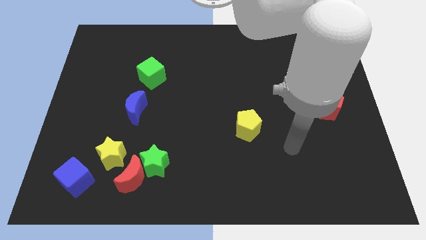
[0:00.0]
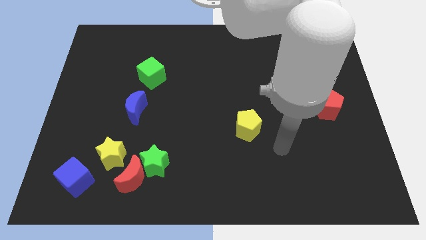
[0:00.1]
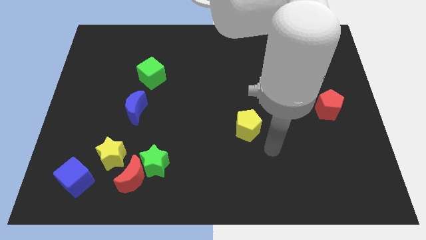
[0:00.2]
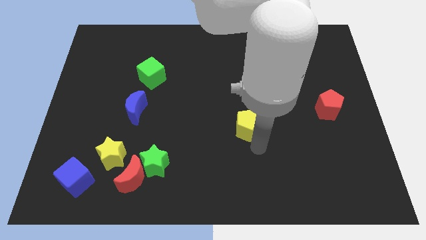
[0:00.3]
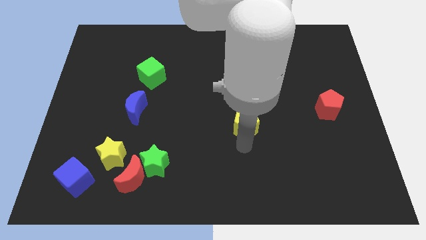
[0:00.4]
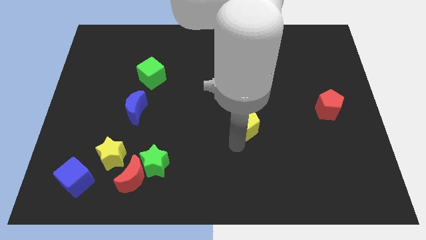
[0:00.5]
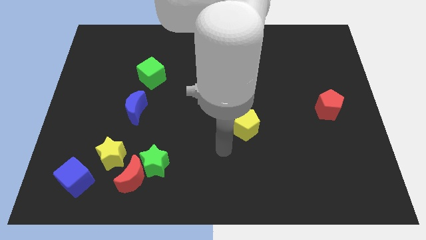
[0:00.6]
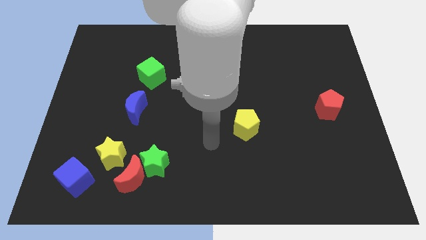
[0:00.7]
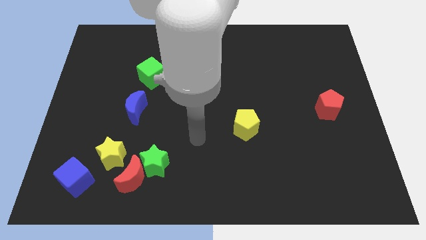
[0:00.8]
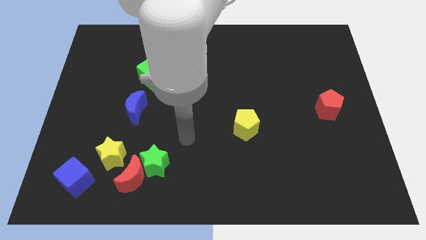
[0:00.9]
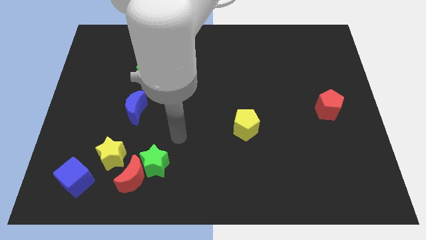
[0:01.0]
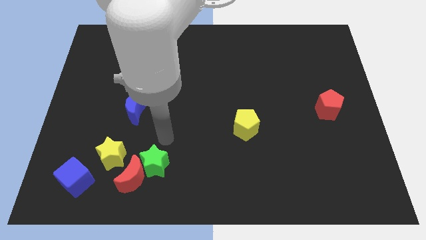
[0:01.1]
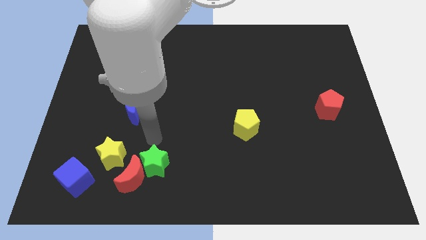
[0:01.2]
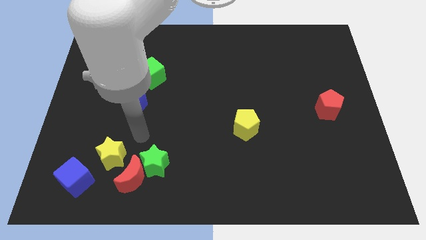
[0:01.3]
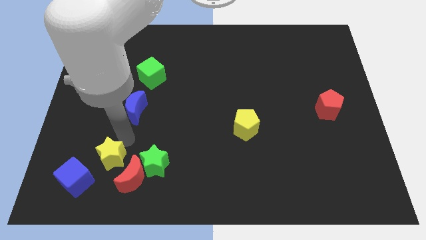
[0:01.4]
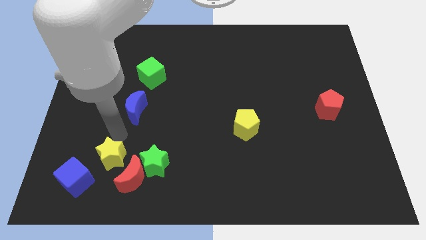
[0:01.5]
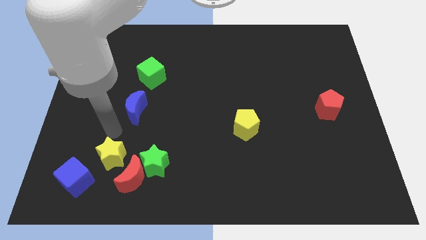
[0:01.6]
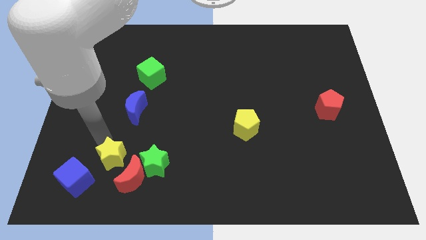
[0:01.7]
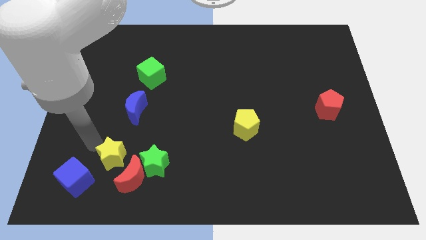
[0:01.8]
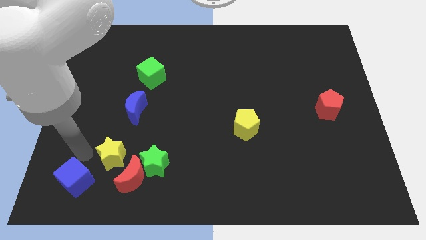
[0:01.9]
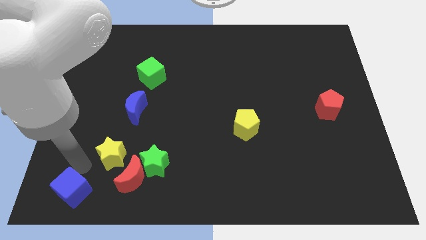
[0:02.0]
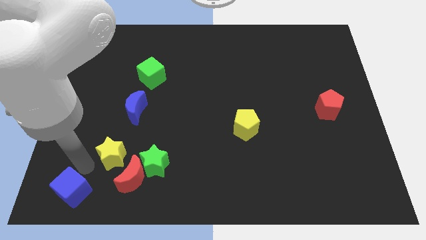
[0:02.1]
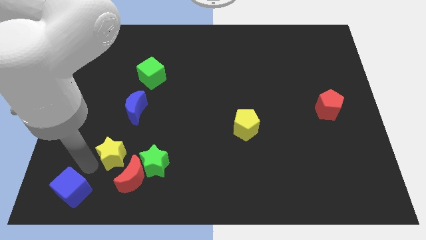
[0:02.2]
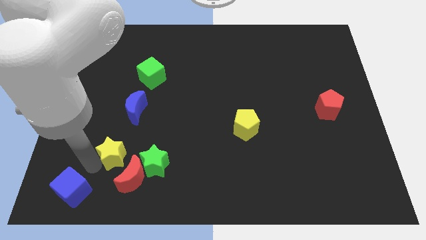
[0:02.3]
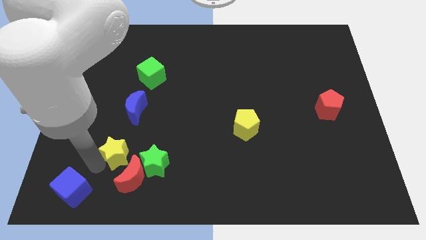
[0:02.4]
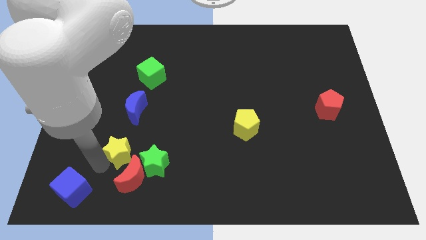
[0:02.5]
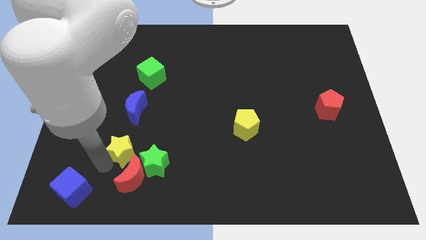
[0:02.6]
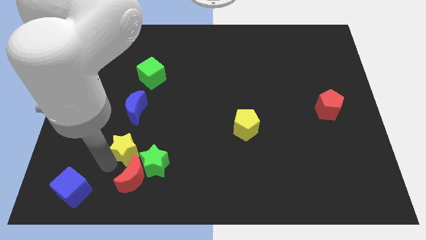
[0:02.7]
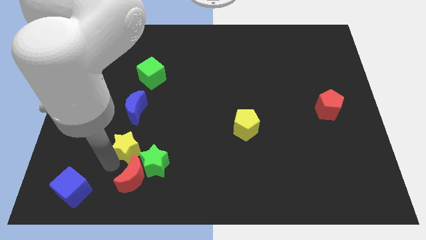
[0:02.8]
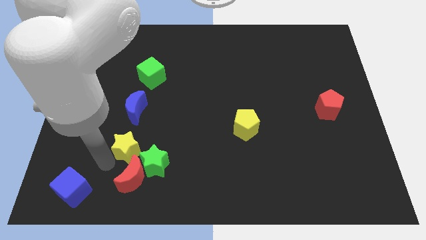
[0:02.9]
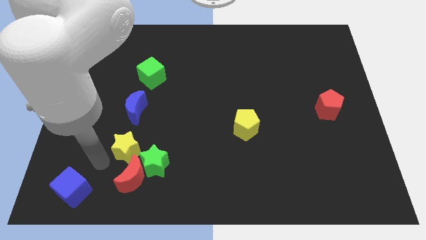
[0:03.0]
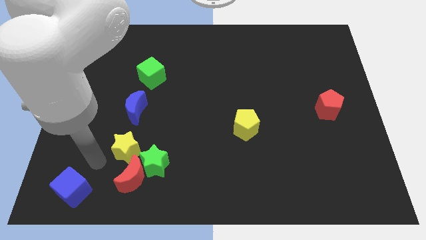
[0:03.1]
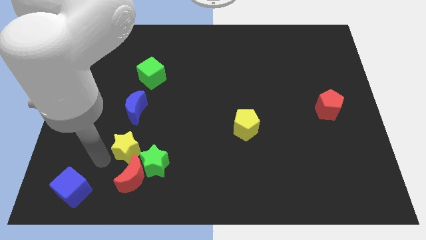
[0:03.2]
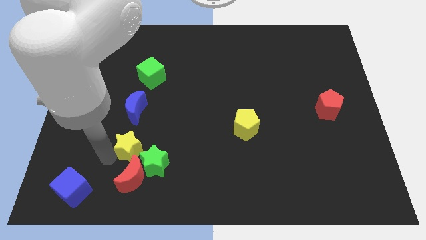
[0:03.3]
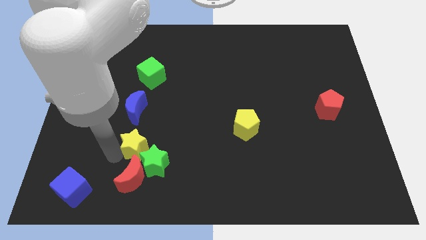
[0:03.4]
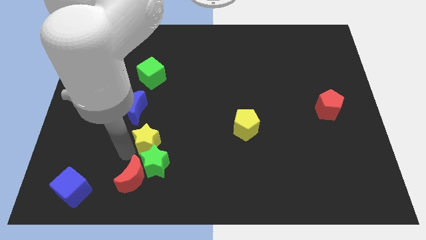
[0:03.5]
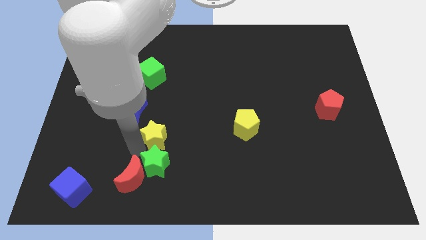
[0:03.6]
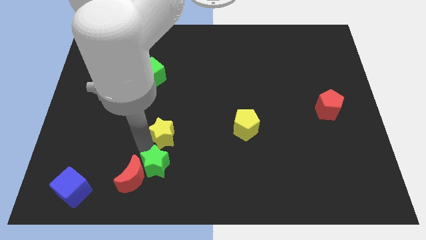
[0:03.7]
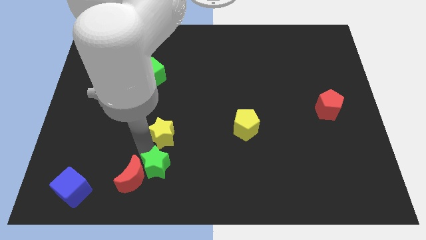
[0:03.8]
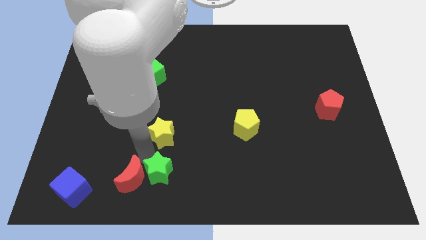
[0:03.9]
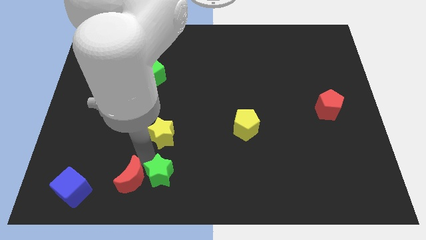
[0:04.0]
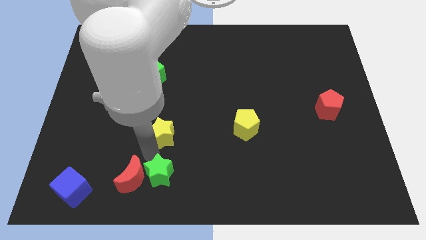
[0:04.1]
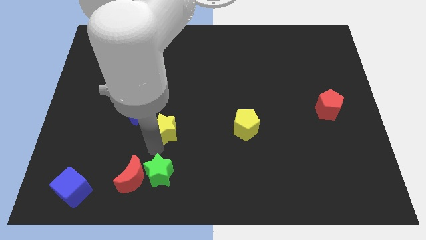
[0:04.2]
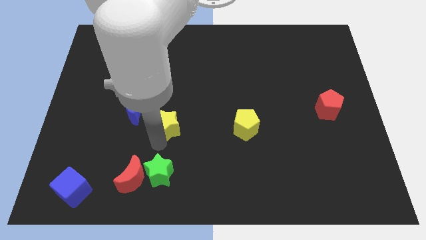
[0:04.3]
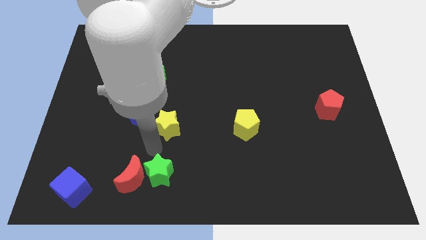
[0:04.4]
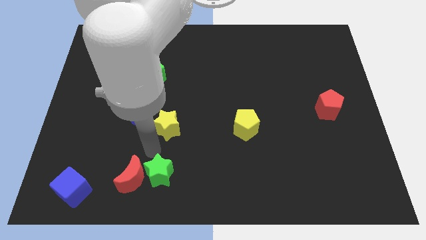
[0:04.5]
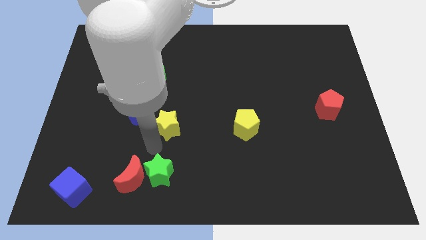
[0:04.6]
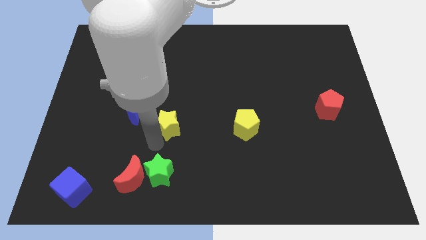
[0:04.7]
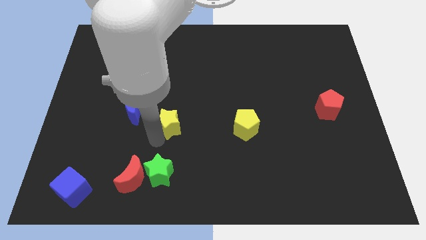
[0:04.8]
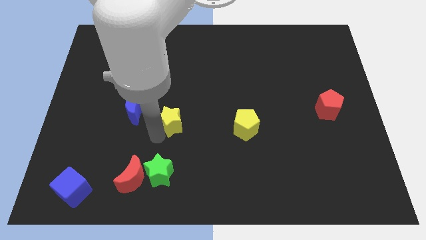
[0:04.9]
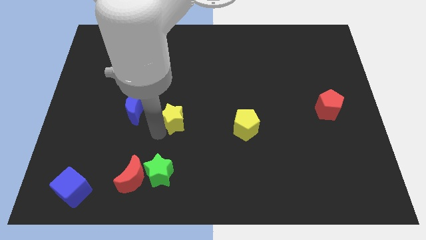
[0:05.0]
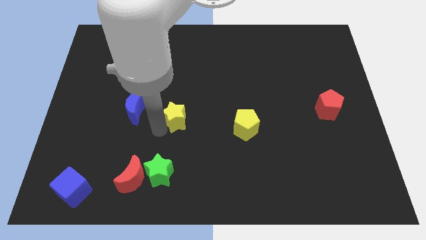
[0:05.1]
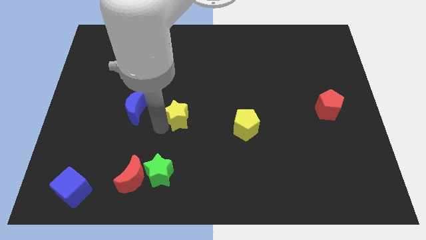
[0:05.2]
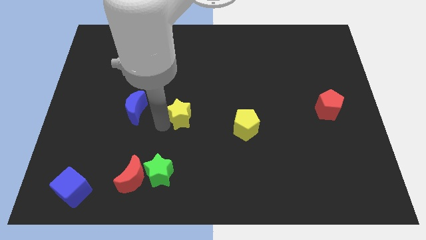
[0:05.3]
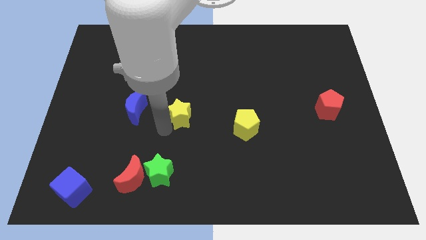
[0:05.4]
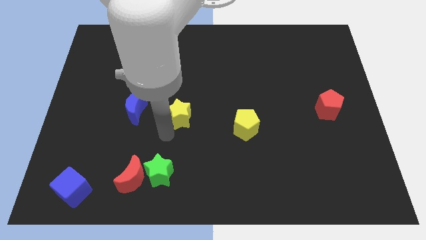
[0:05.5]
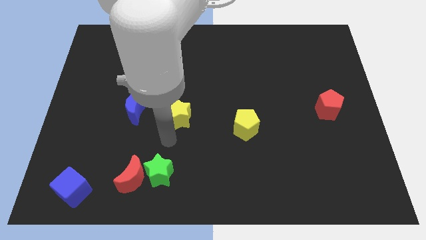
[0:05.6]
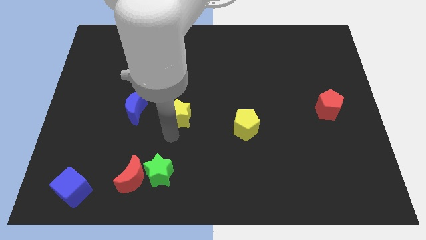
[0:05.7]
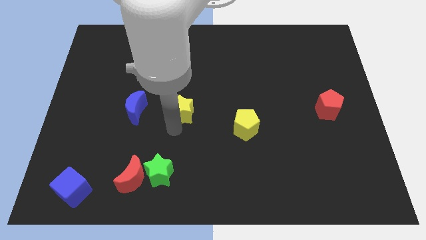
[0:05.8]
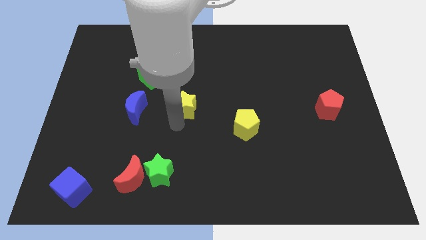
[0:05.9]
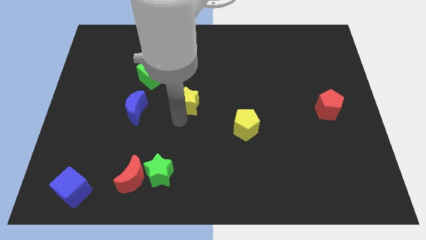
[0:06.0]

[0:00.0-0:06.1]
push the yellow star upwards and then right

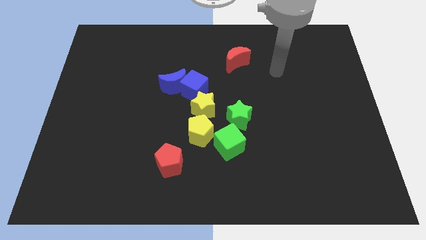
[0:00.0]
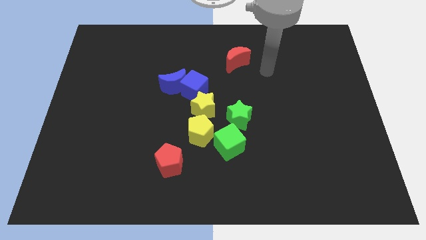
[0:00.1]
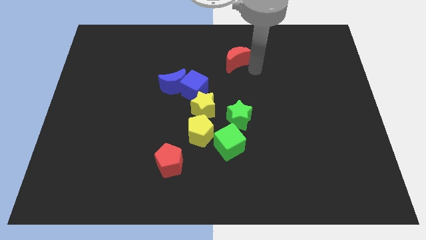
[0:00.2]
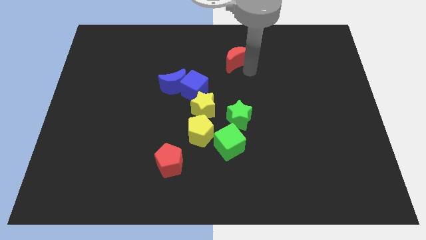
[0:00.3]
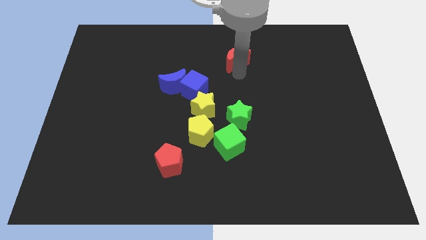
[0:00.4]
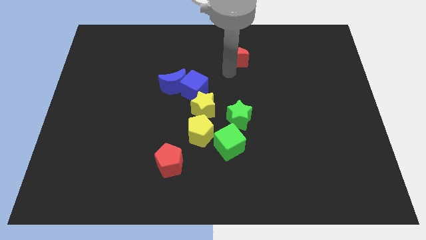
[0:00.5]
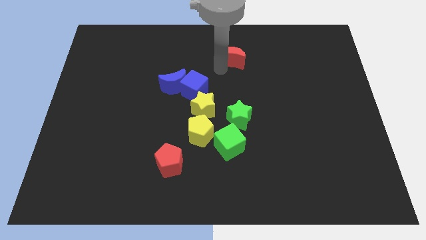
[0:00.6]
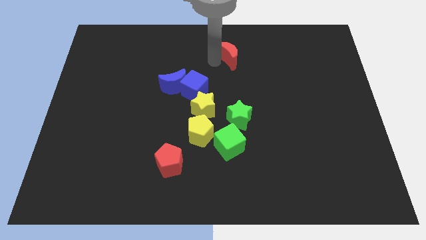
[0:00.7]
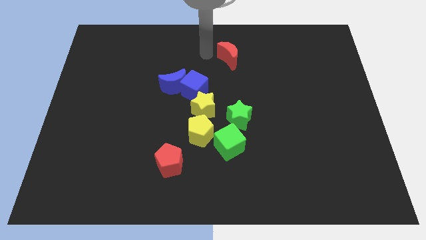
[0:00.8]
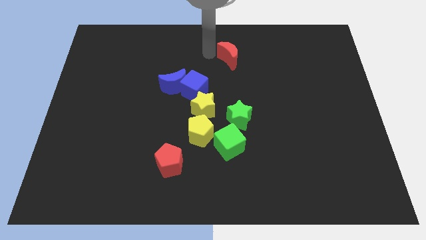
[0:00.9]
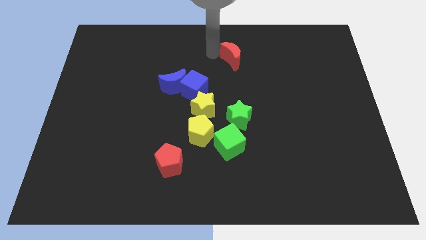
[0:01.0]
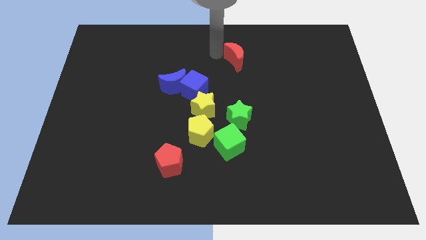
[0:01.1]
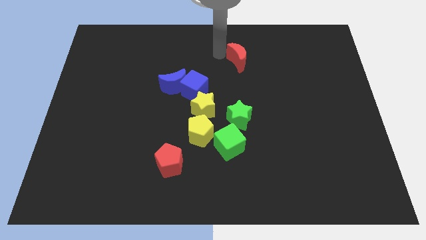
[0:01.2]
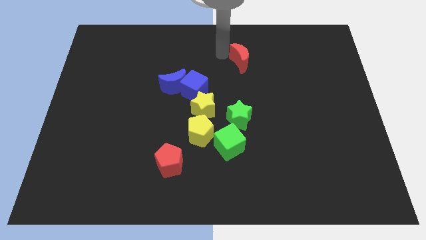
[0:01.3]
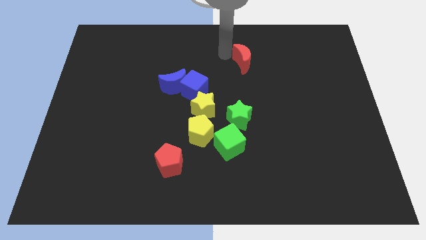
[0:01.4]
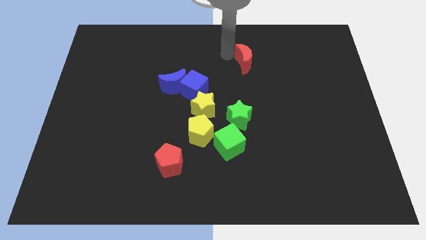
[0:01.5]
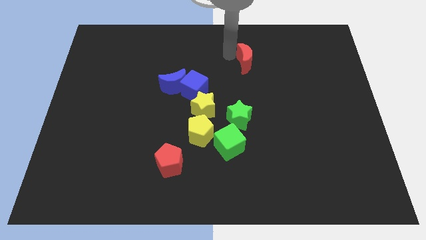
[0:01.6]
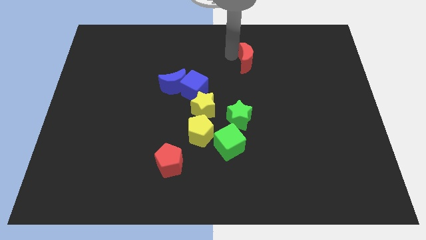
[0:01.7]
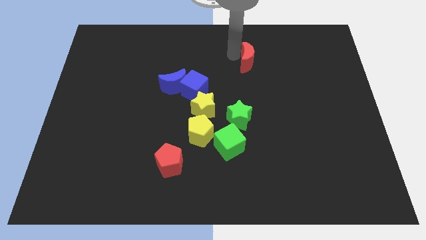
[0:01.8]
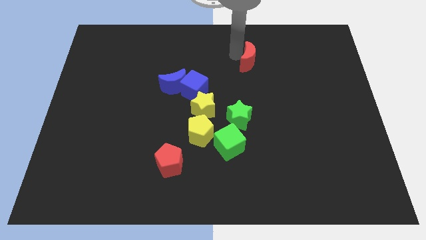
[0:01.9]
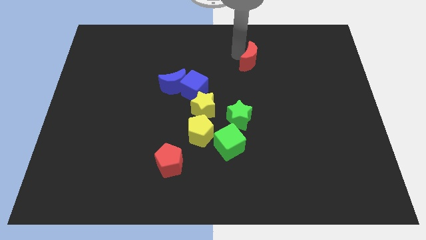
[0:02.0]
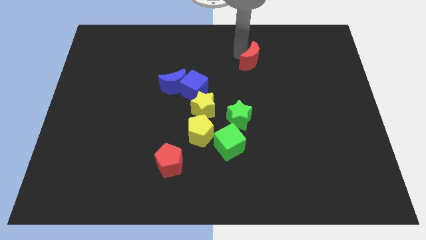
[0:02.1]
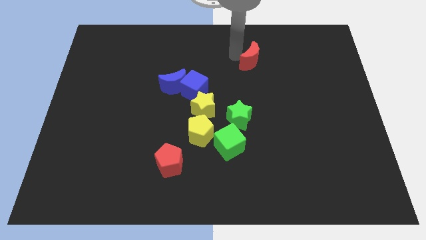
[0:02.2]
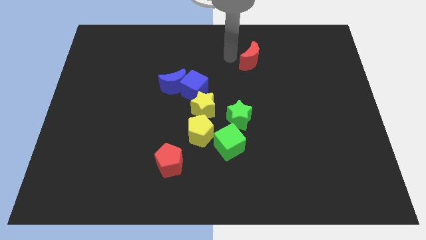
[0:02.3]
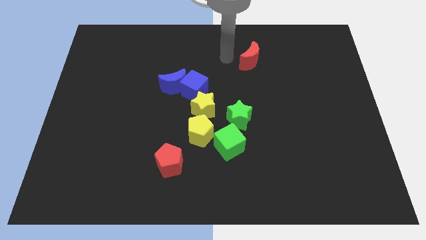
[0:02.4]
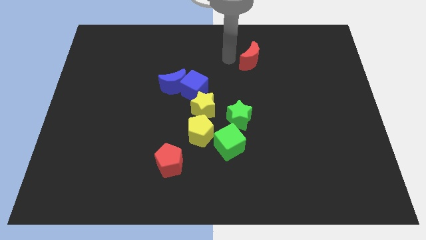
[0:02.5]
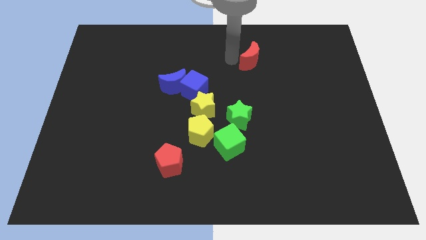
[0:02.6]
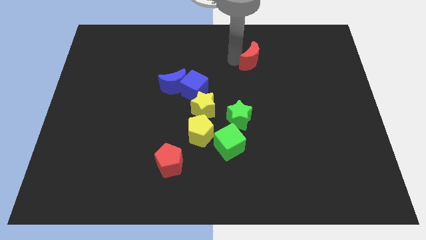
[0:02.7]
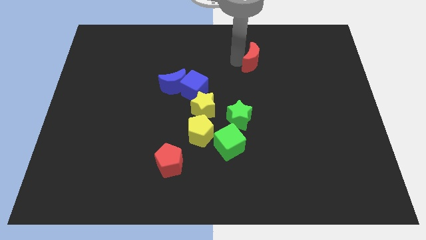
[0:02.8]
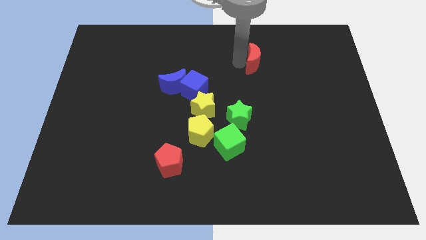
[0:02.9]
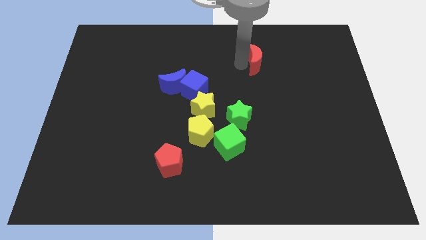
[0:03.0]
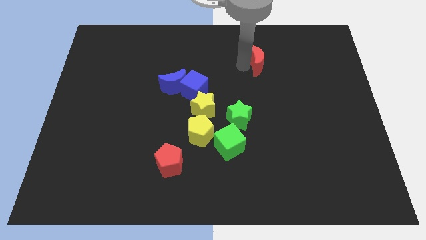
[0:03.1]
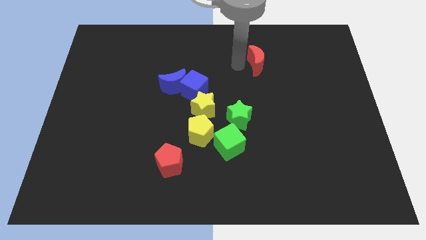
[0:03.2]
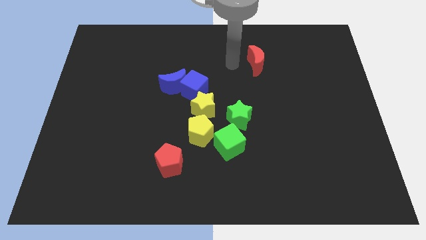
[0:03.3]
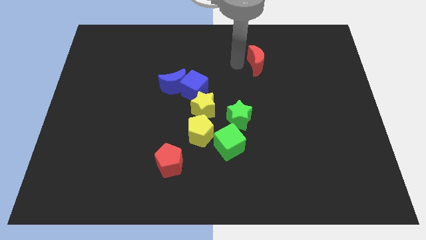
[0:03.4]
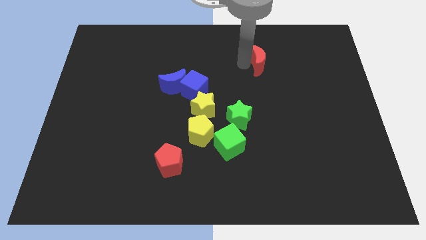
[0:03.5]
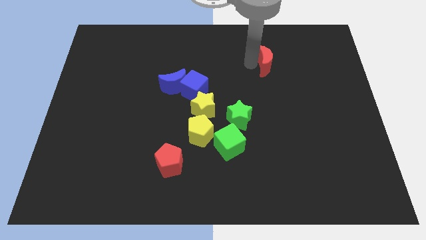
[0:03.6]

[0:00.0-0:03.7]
slightly push the red moon to the right
